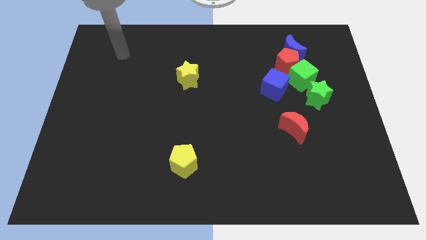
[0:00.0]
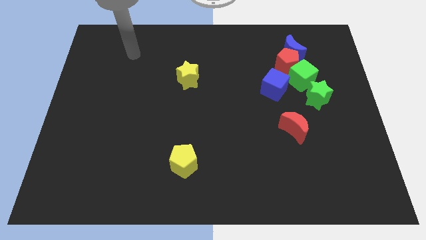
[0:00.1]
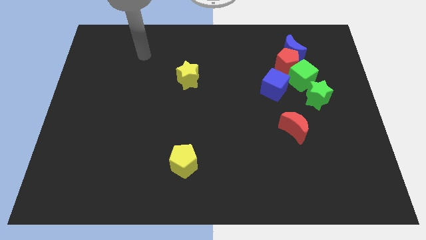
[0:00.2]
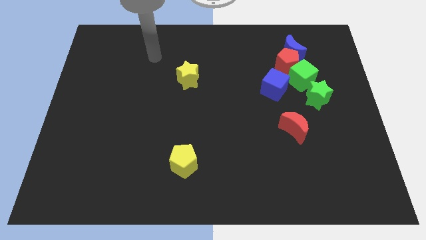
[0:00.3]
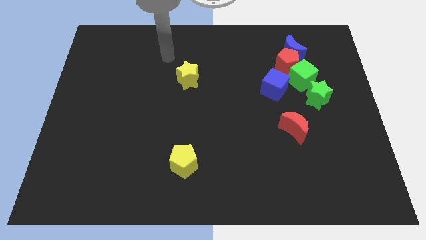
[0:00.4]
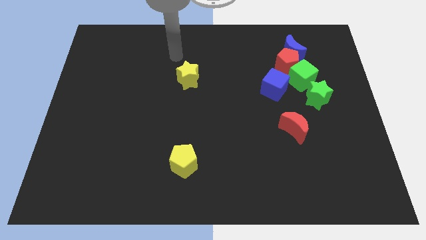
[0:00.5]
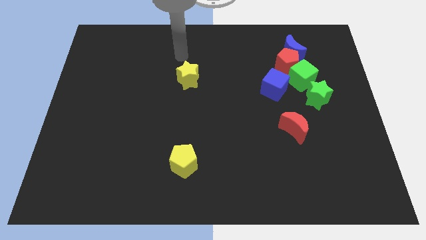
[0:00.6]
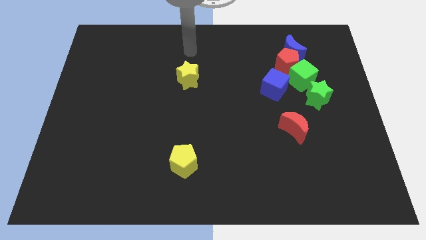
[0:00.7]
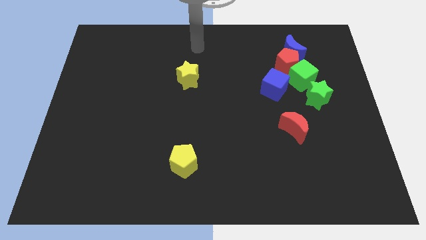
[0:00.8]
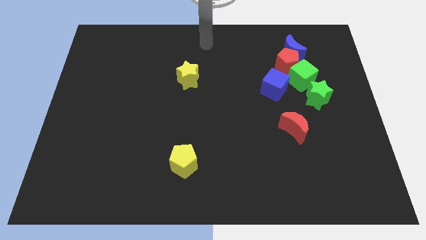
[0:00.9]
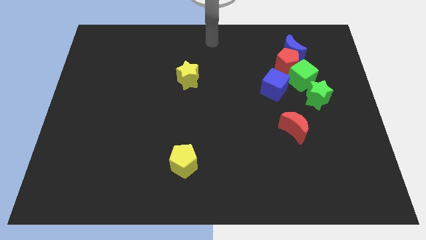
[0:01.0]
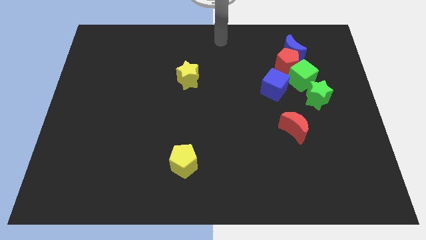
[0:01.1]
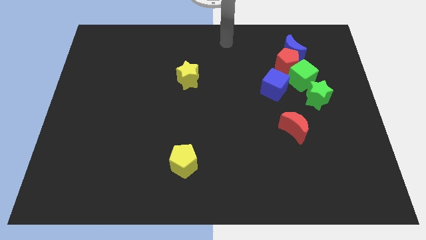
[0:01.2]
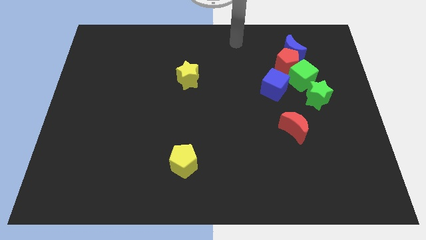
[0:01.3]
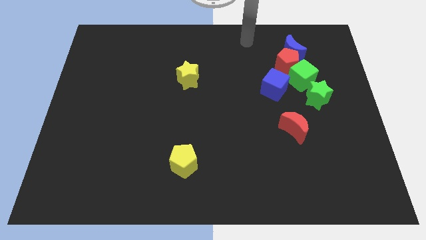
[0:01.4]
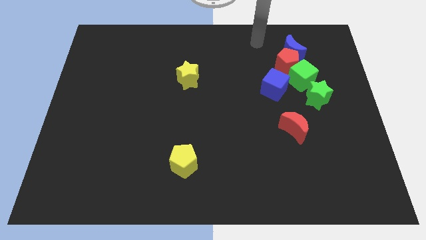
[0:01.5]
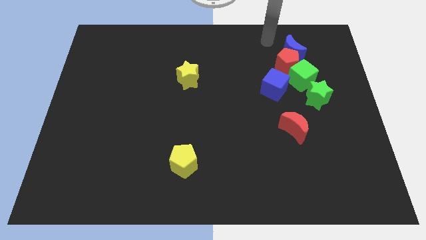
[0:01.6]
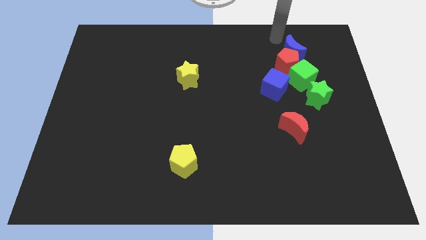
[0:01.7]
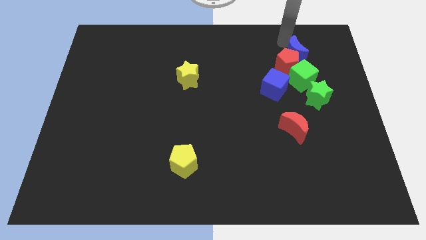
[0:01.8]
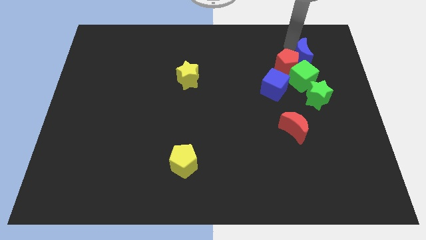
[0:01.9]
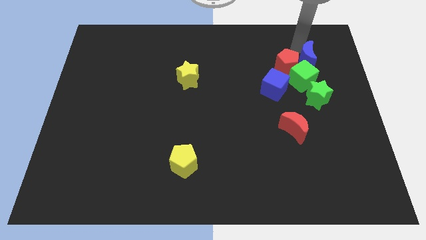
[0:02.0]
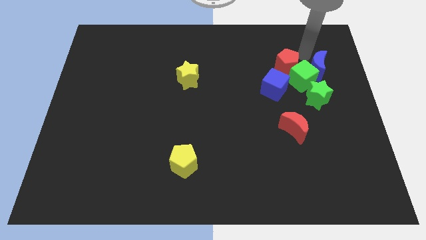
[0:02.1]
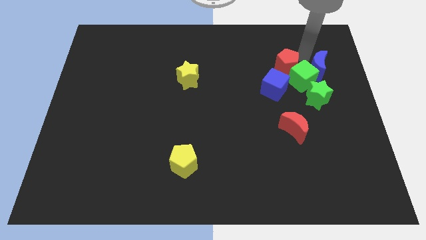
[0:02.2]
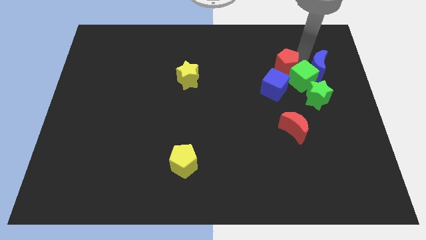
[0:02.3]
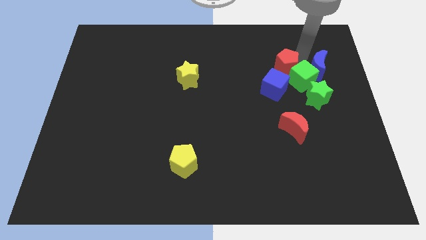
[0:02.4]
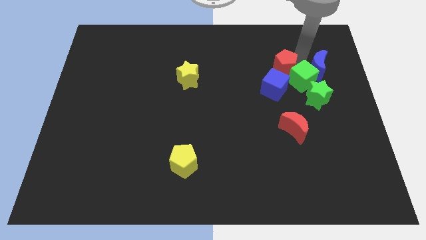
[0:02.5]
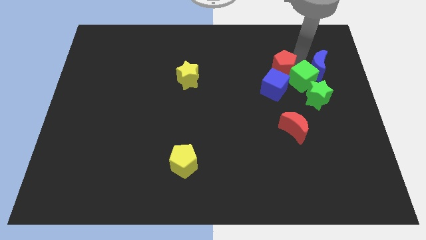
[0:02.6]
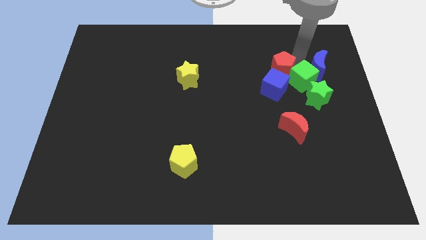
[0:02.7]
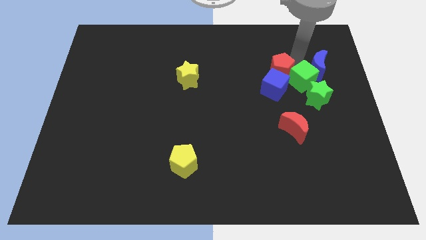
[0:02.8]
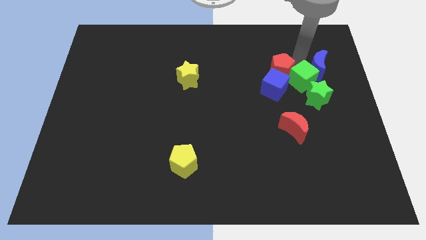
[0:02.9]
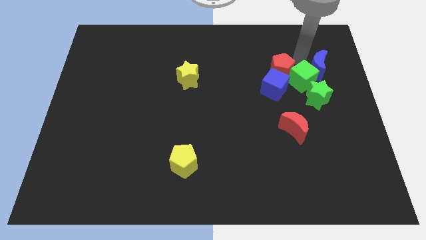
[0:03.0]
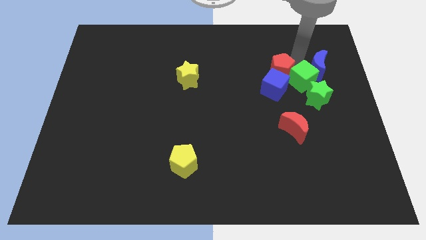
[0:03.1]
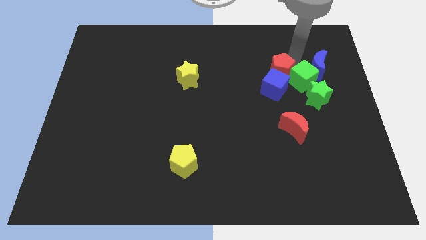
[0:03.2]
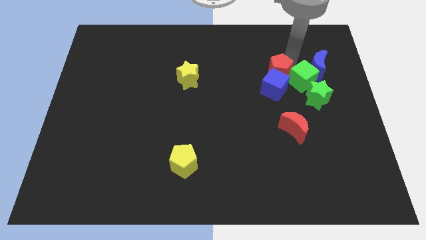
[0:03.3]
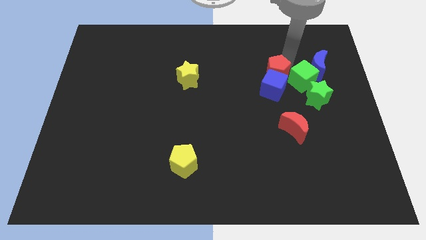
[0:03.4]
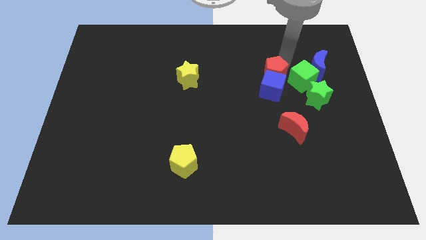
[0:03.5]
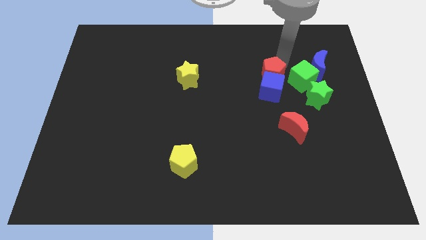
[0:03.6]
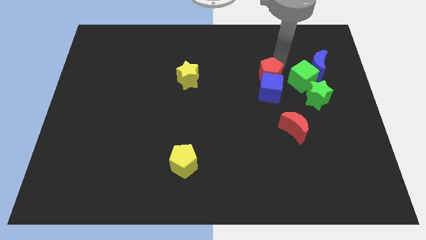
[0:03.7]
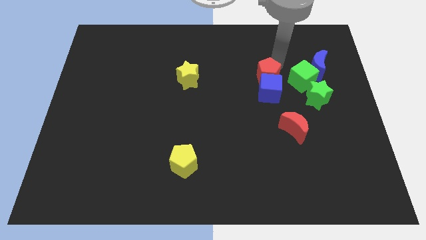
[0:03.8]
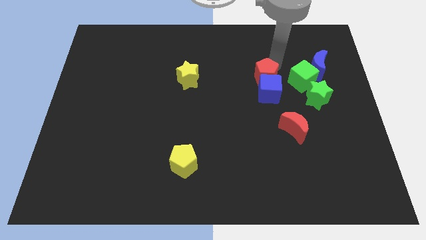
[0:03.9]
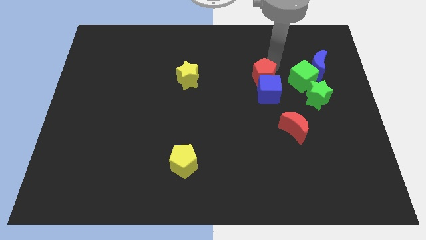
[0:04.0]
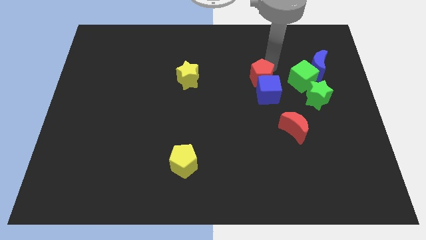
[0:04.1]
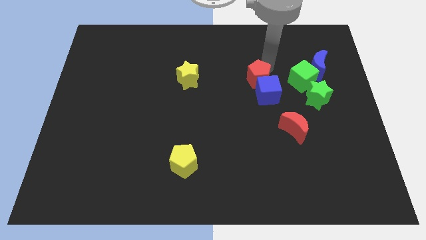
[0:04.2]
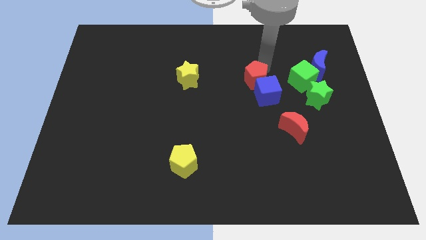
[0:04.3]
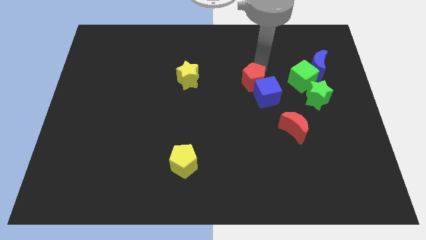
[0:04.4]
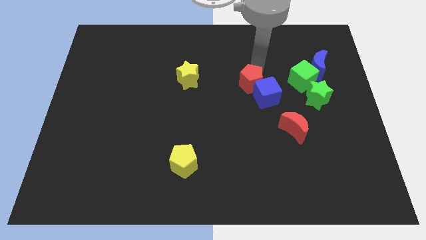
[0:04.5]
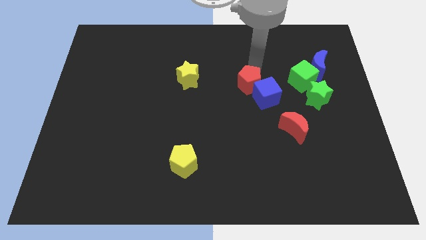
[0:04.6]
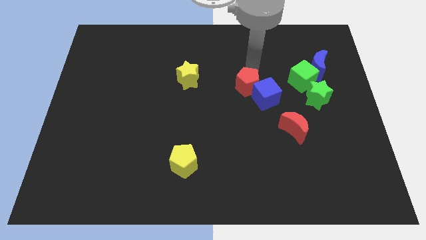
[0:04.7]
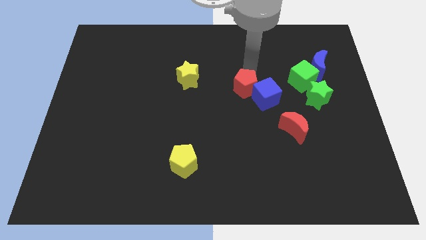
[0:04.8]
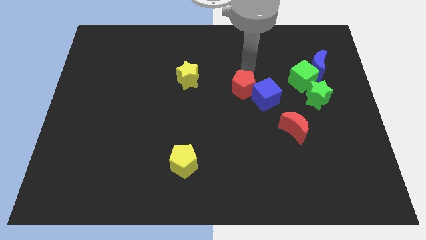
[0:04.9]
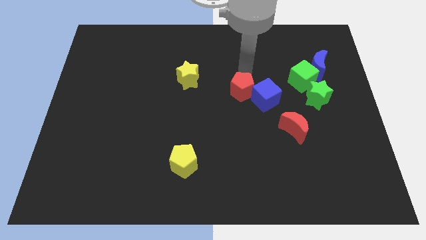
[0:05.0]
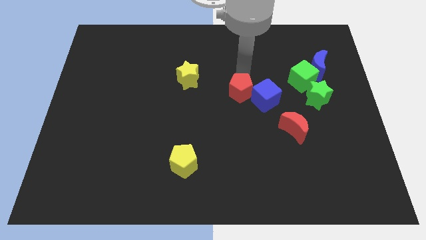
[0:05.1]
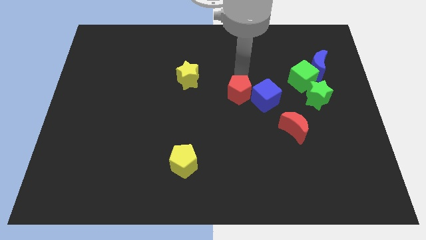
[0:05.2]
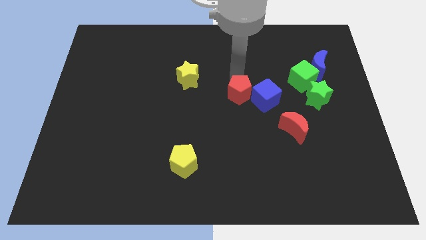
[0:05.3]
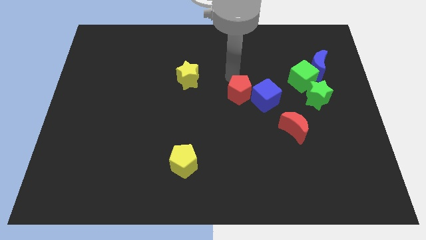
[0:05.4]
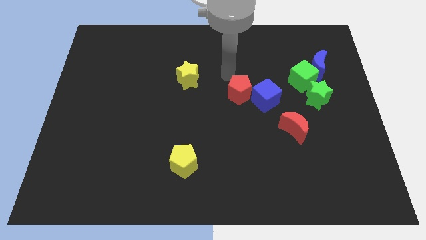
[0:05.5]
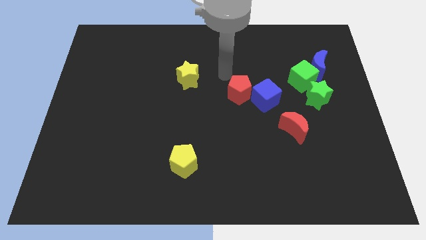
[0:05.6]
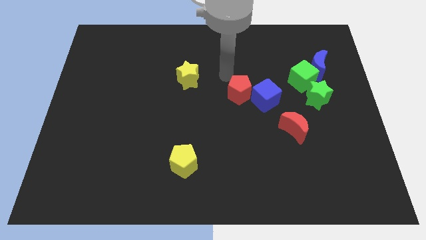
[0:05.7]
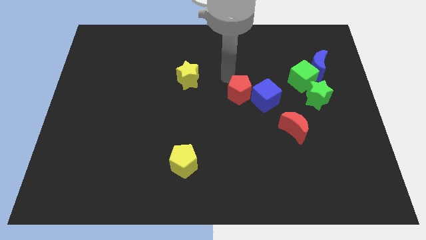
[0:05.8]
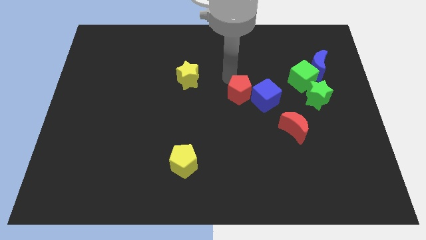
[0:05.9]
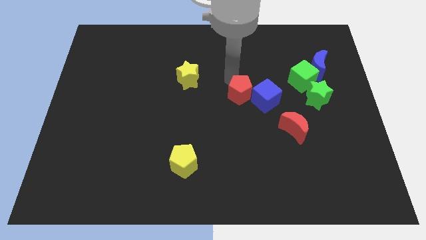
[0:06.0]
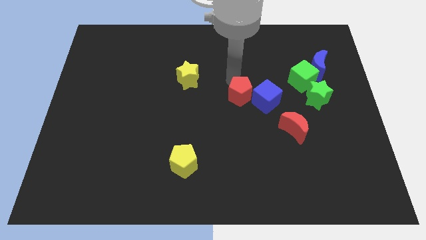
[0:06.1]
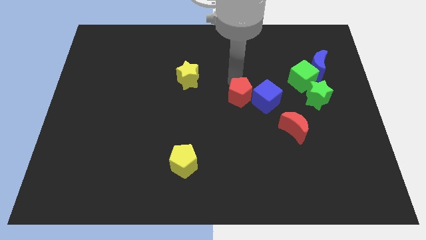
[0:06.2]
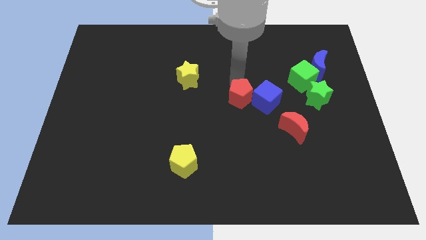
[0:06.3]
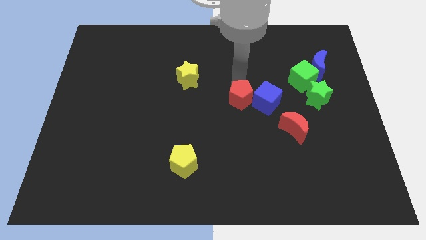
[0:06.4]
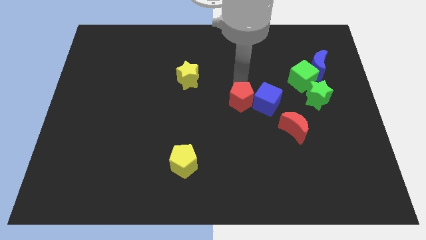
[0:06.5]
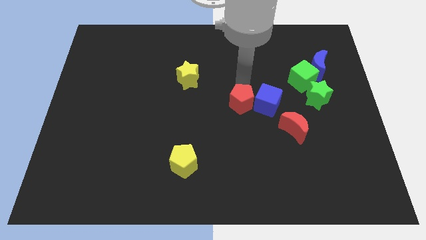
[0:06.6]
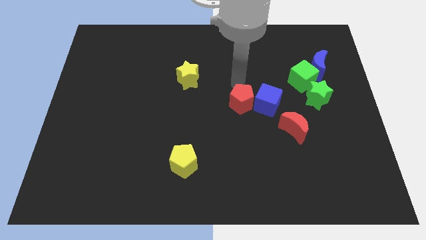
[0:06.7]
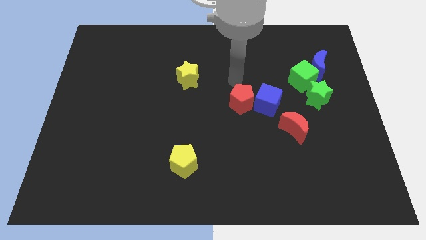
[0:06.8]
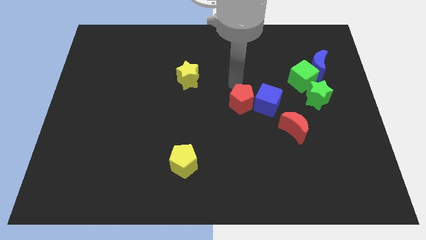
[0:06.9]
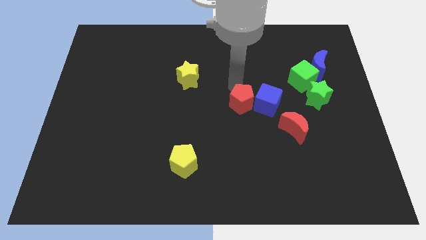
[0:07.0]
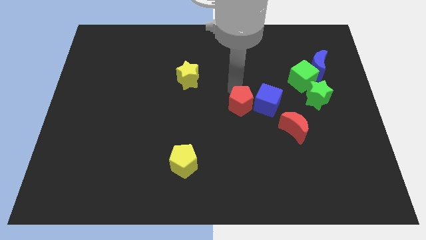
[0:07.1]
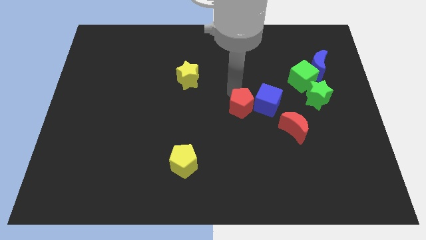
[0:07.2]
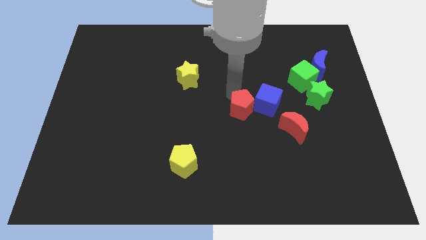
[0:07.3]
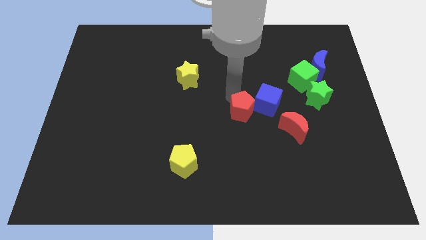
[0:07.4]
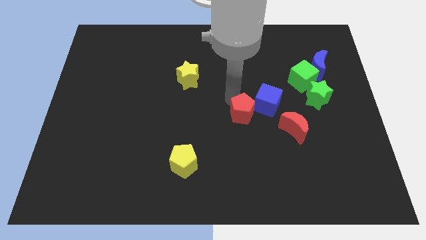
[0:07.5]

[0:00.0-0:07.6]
push the red pentagon to the left side of the red moon
